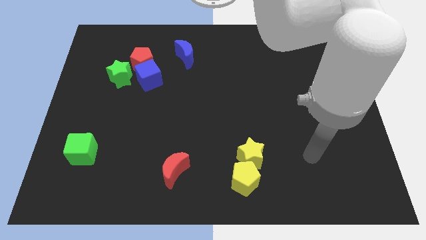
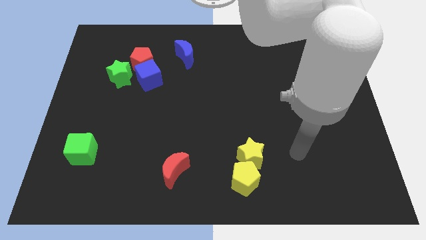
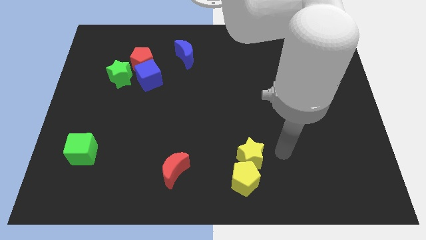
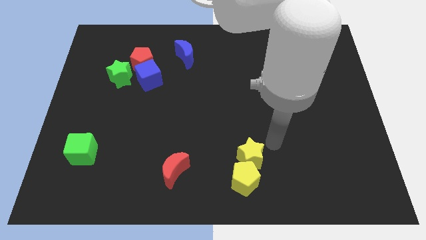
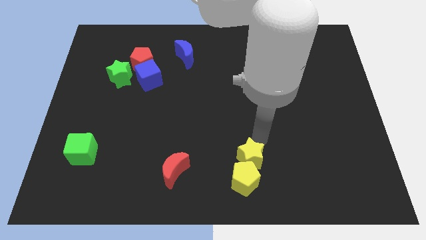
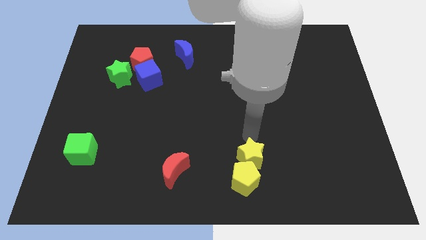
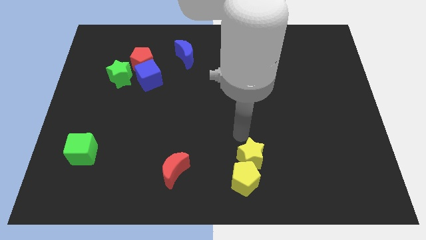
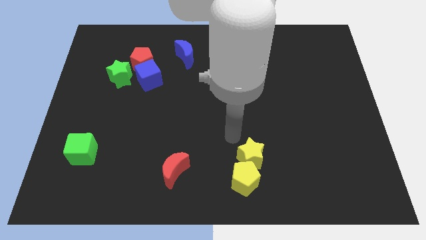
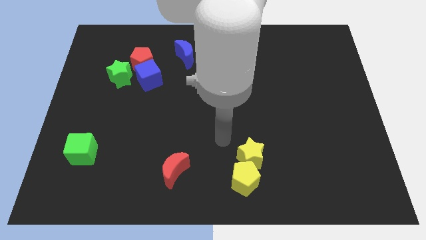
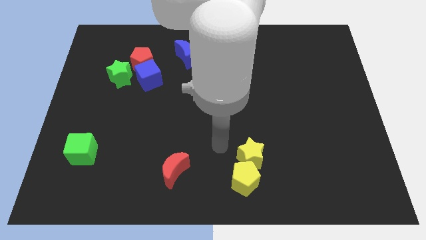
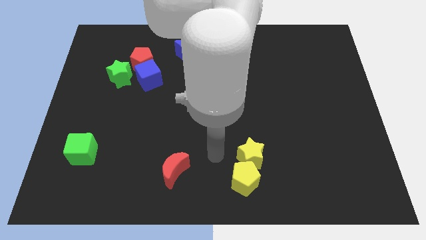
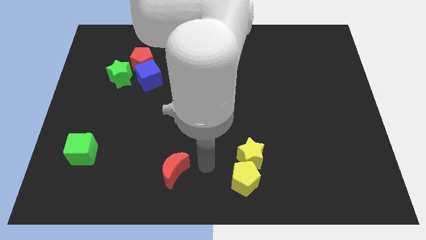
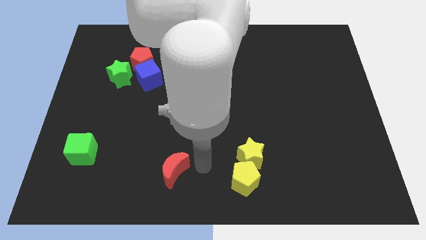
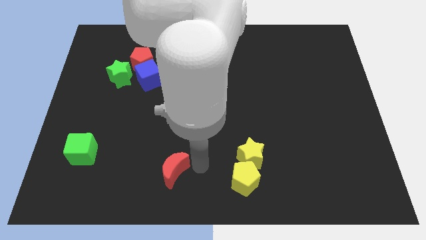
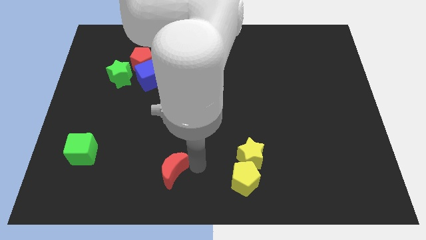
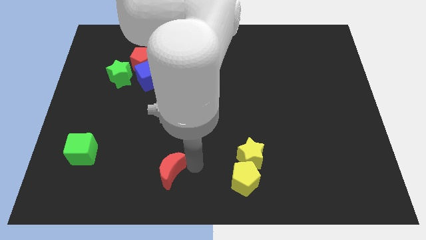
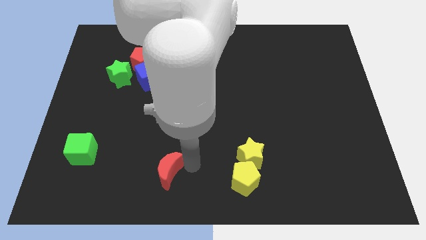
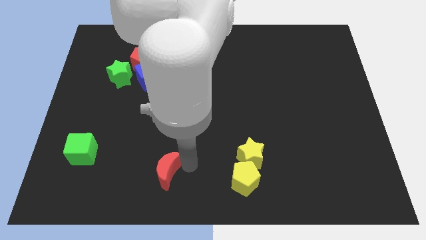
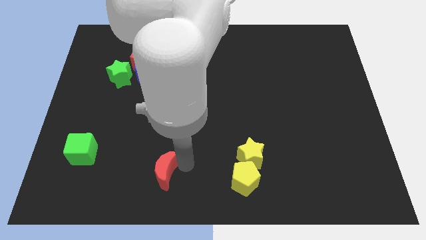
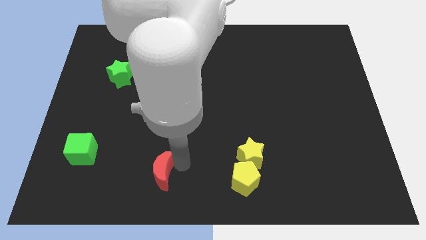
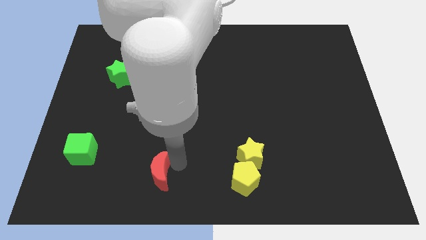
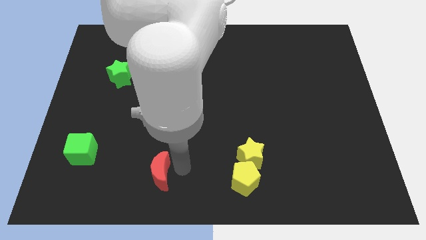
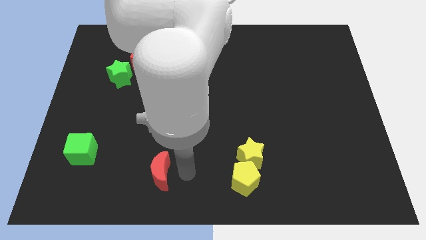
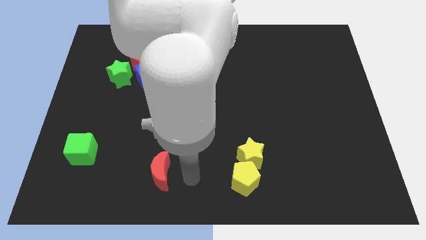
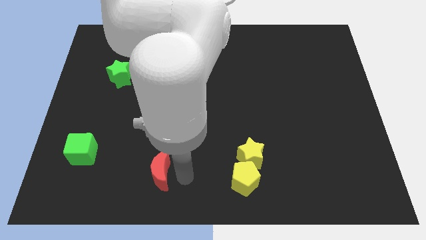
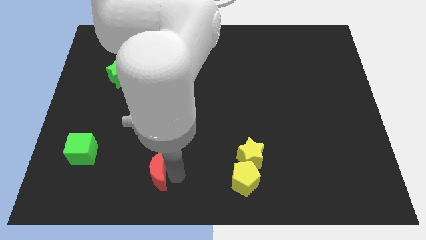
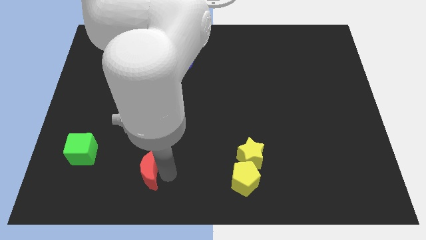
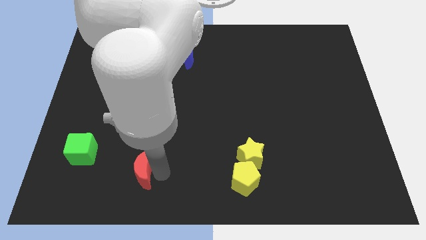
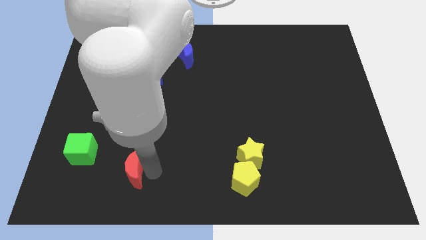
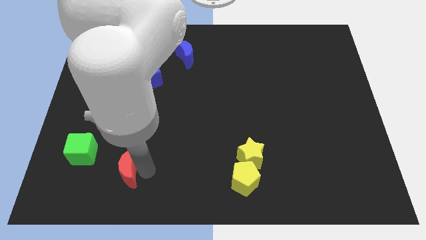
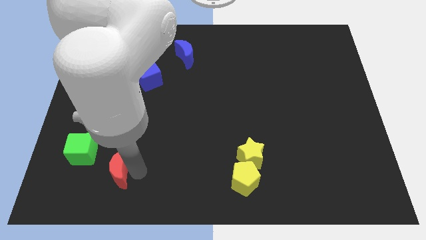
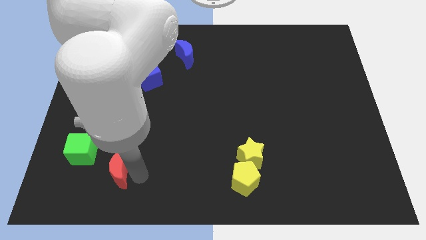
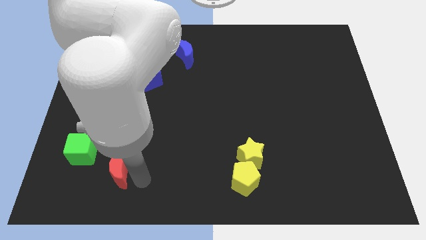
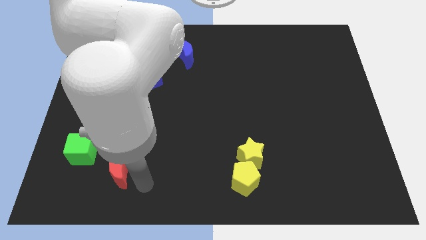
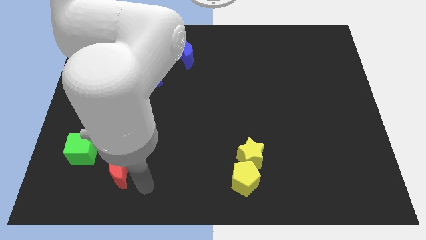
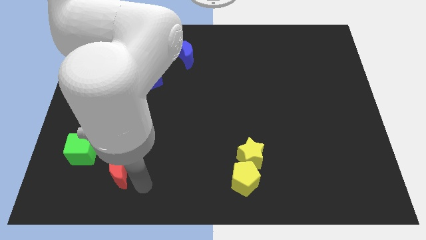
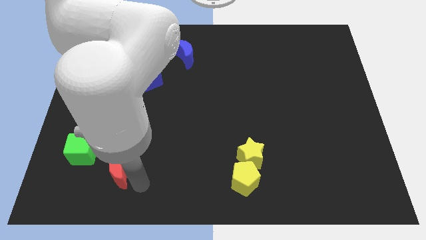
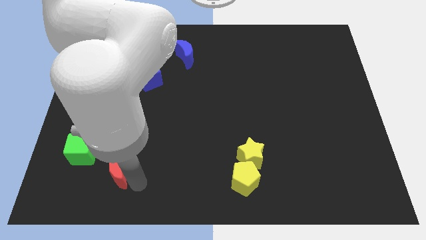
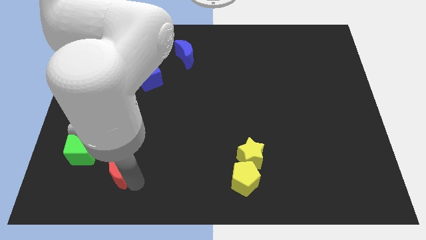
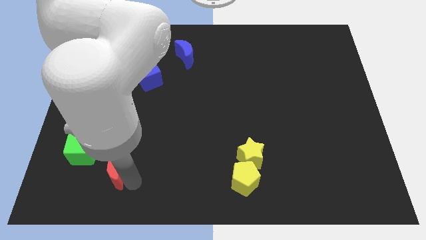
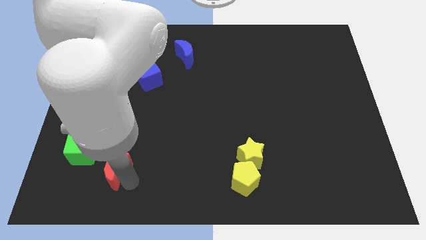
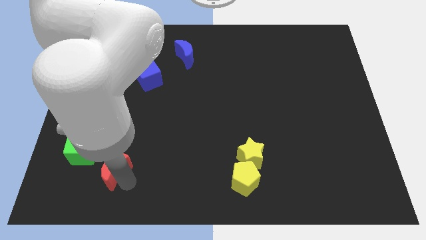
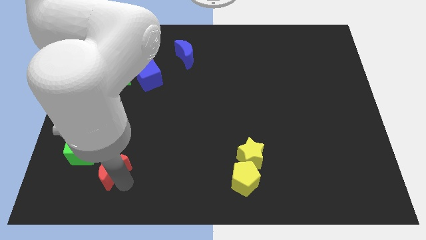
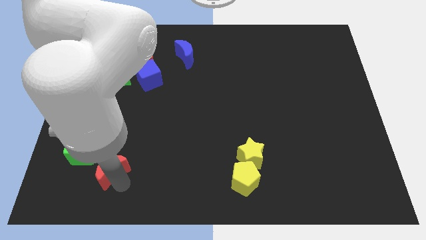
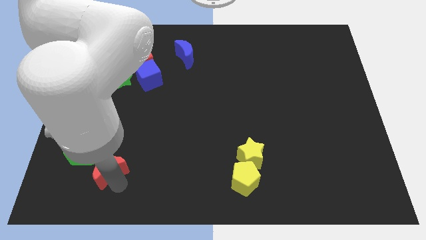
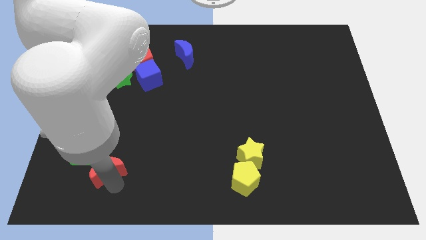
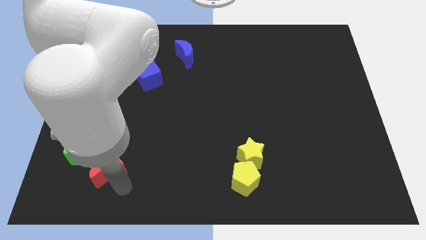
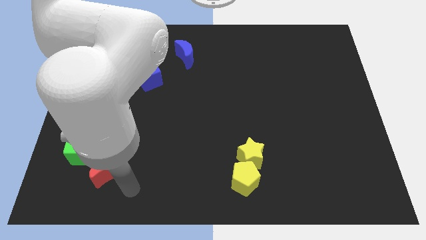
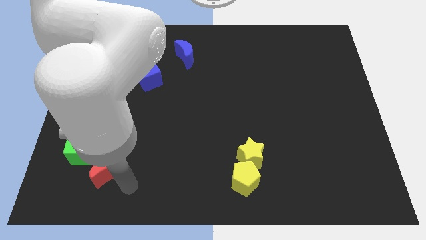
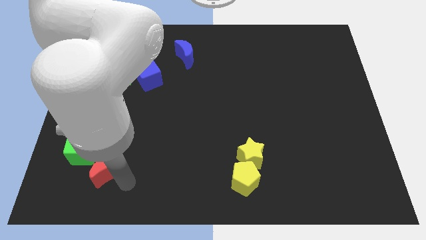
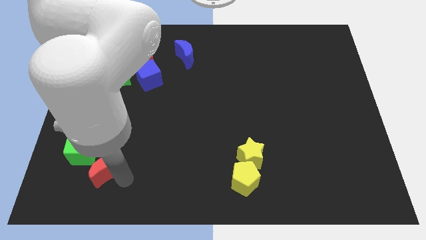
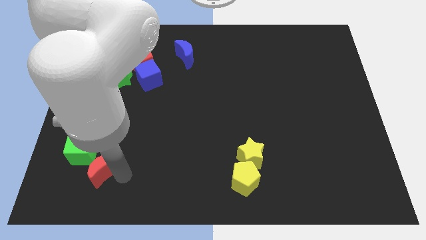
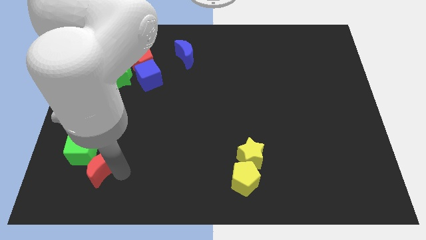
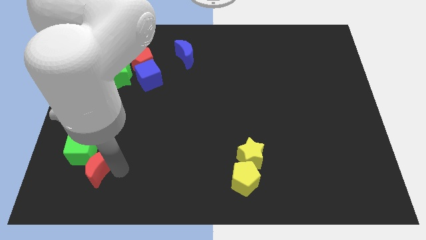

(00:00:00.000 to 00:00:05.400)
slide the red moon close to the green cube
